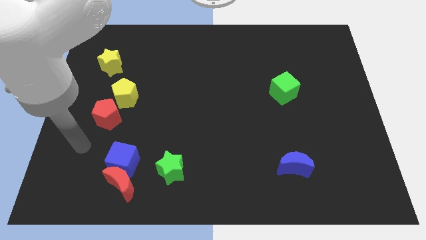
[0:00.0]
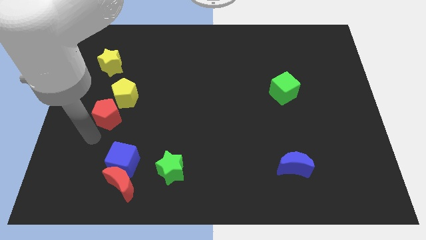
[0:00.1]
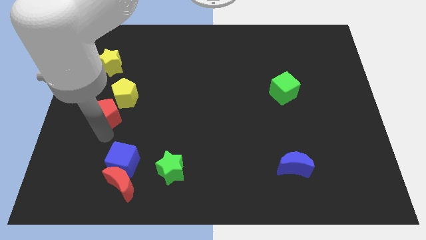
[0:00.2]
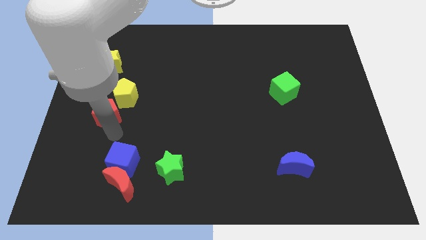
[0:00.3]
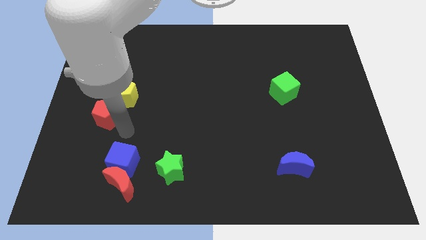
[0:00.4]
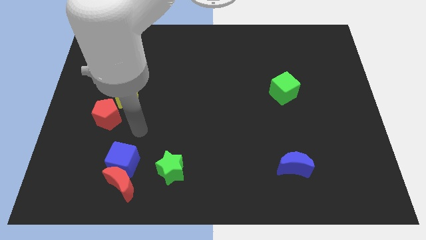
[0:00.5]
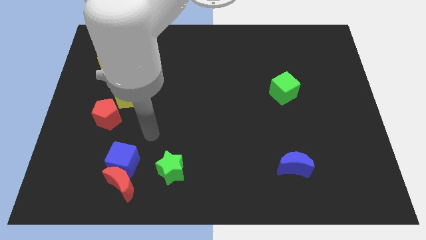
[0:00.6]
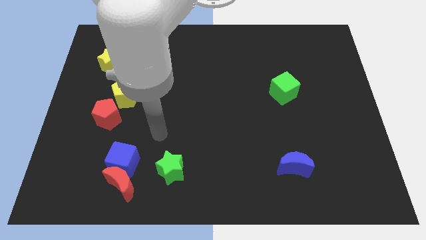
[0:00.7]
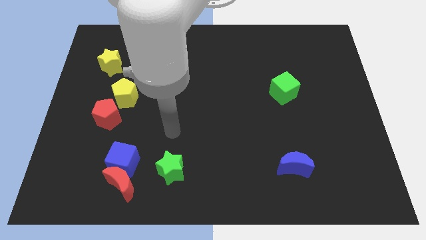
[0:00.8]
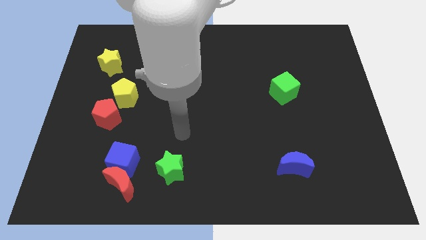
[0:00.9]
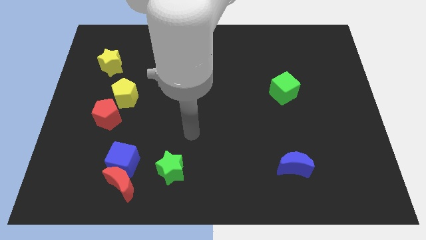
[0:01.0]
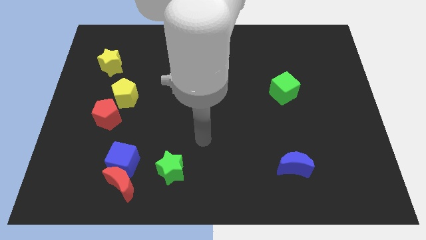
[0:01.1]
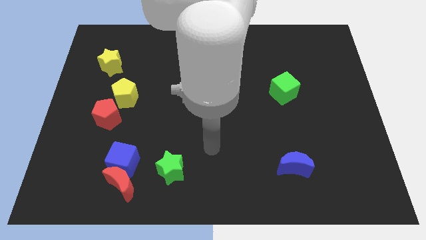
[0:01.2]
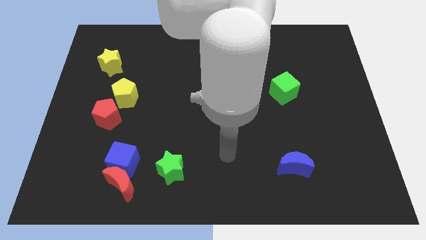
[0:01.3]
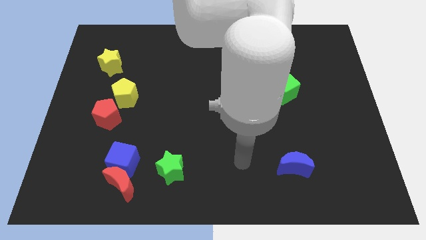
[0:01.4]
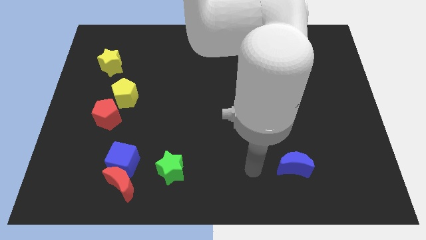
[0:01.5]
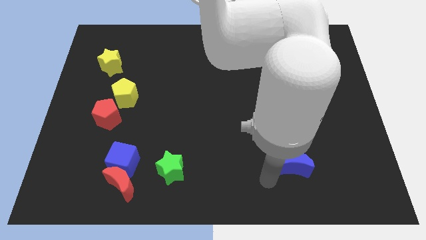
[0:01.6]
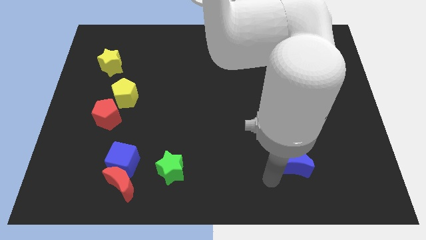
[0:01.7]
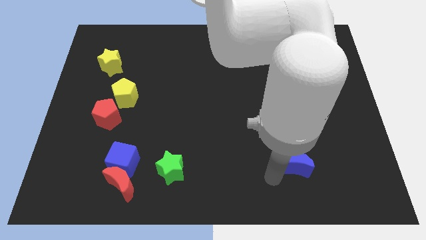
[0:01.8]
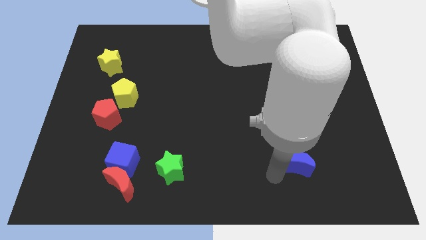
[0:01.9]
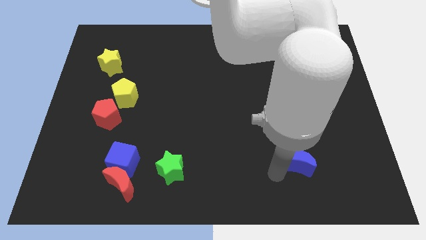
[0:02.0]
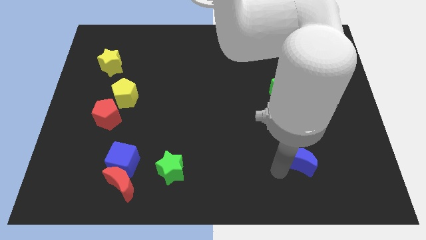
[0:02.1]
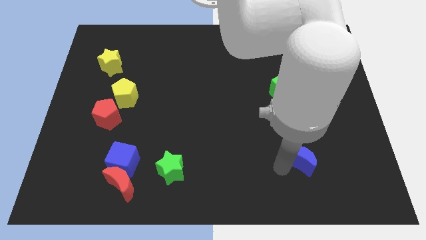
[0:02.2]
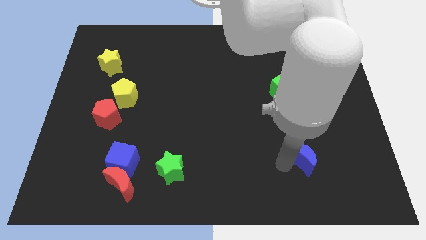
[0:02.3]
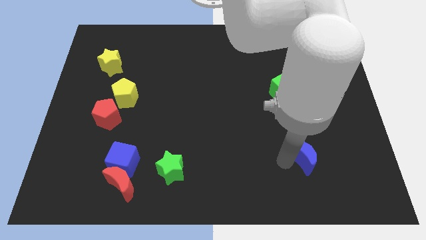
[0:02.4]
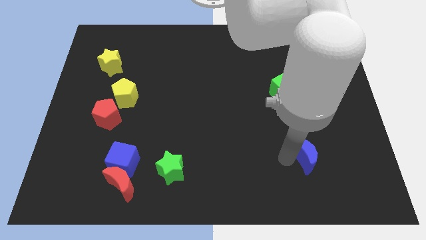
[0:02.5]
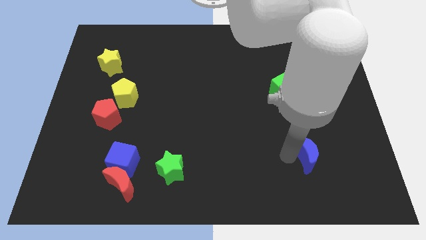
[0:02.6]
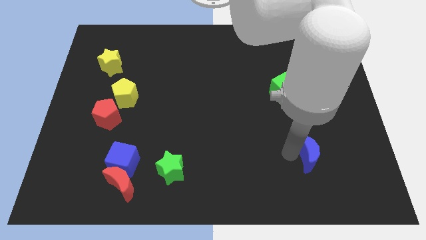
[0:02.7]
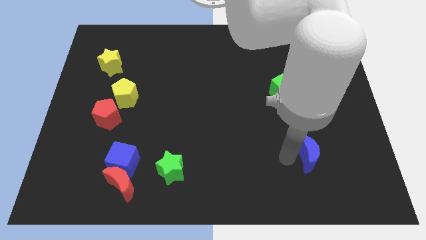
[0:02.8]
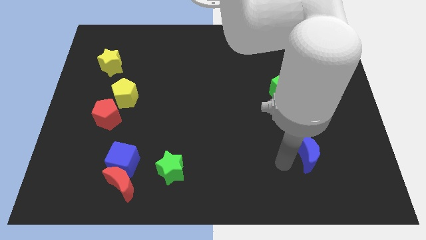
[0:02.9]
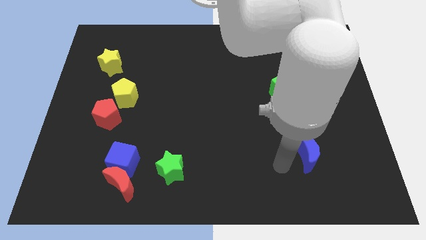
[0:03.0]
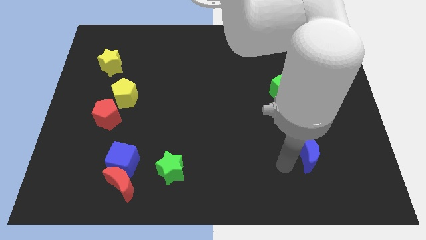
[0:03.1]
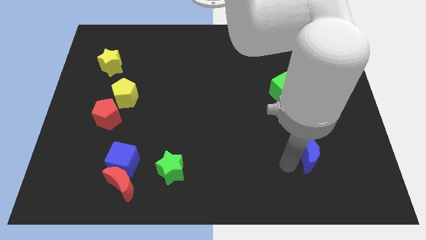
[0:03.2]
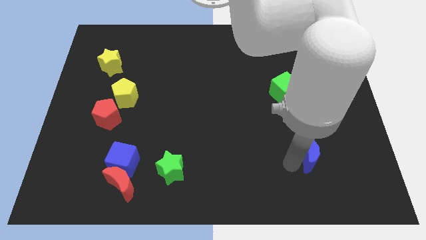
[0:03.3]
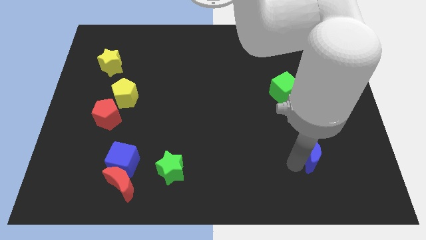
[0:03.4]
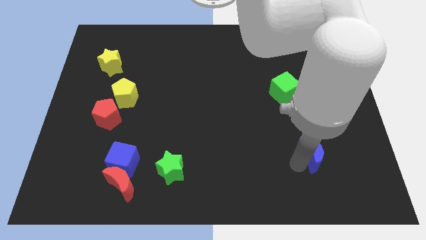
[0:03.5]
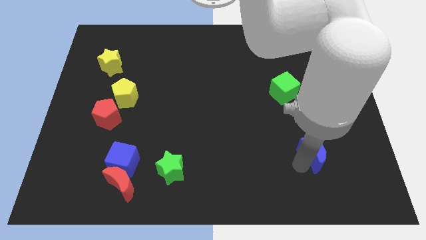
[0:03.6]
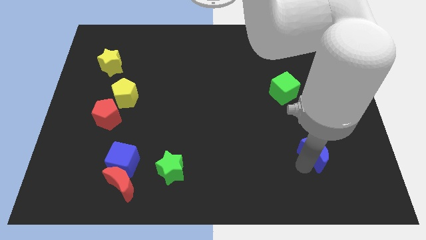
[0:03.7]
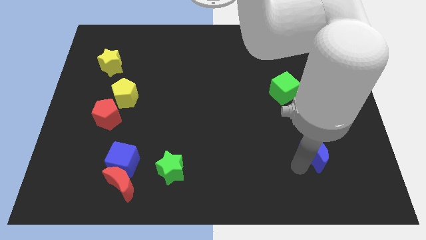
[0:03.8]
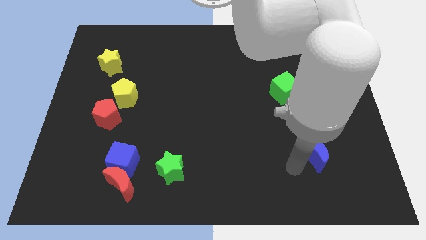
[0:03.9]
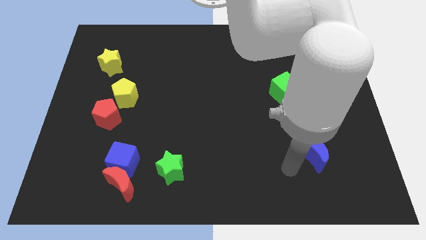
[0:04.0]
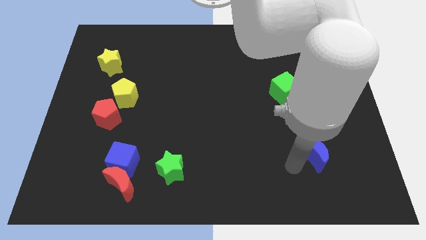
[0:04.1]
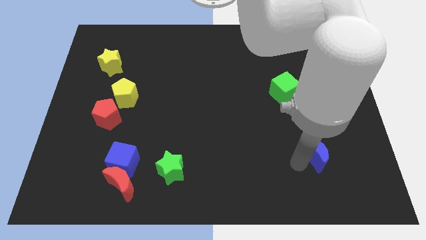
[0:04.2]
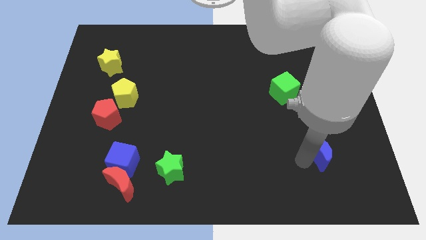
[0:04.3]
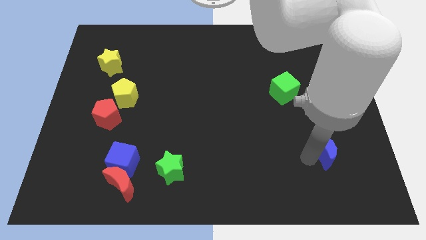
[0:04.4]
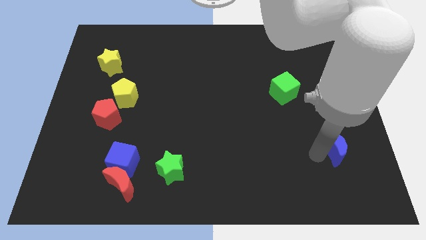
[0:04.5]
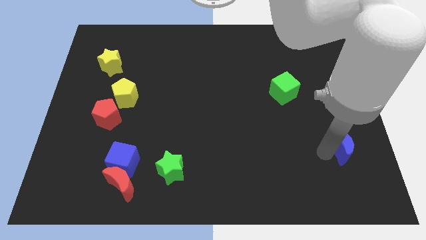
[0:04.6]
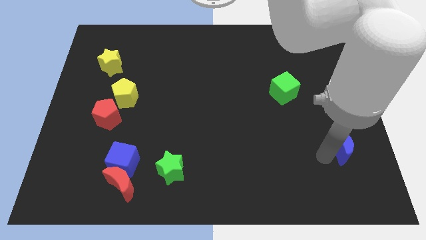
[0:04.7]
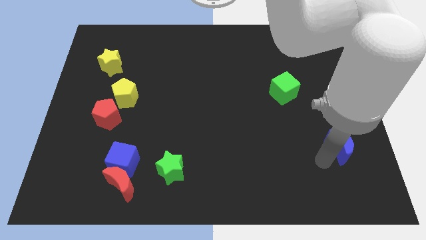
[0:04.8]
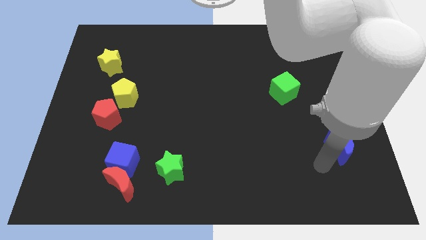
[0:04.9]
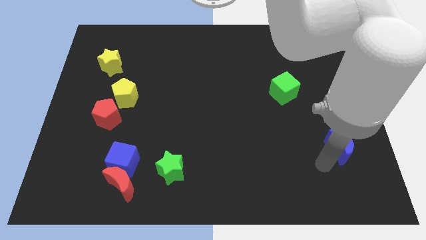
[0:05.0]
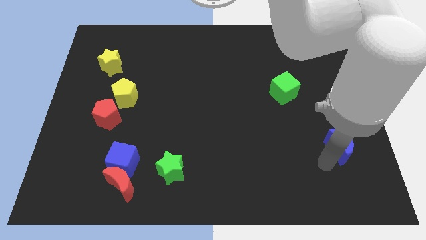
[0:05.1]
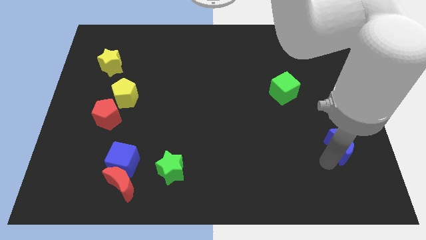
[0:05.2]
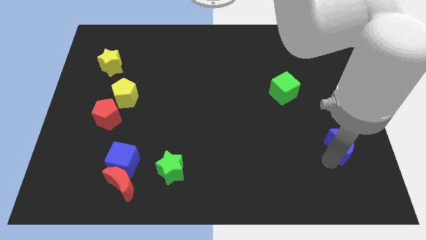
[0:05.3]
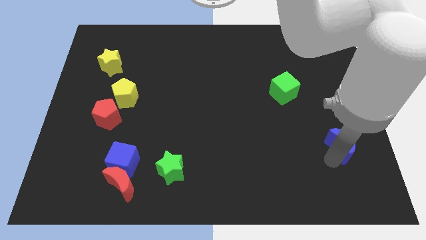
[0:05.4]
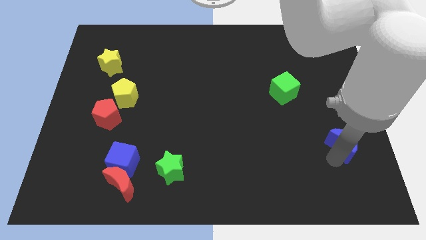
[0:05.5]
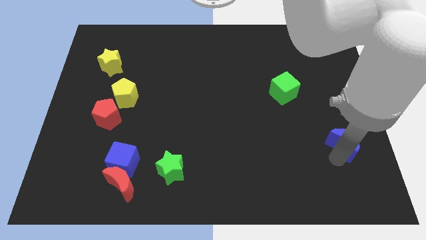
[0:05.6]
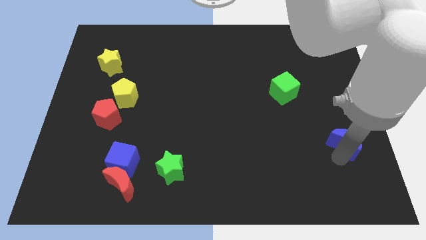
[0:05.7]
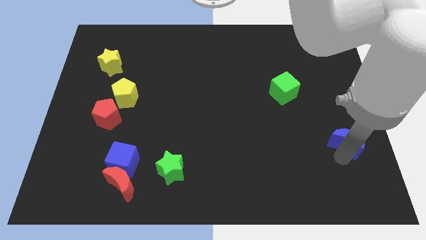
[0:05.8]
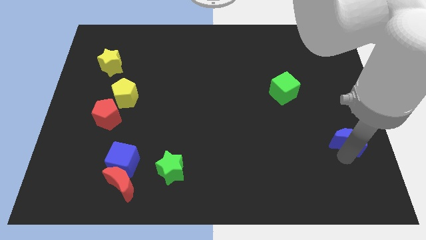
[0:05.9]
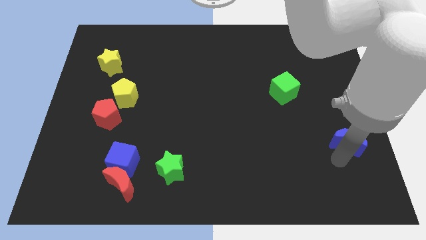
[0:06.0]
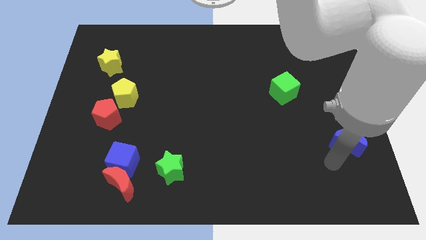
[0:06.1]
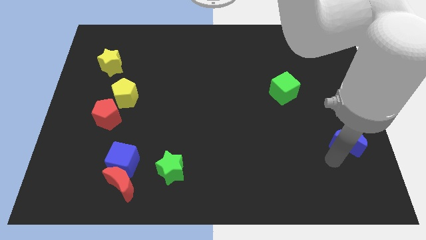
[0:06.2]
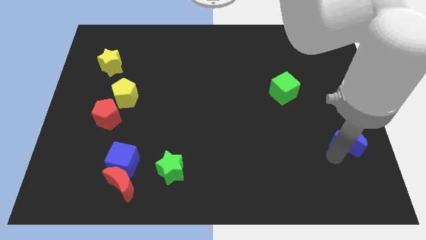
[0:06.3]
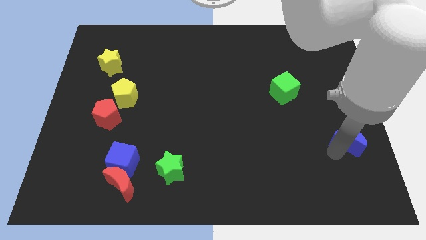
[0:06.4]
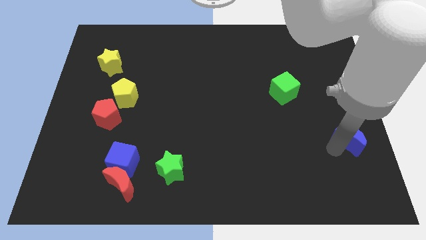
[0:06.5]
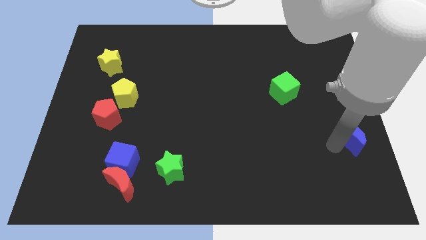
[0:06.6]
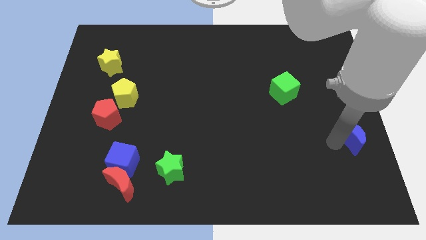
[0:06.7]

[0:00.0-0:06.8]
put the blue moon to the right side of the board

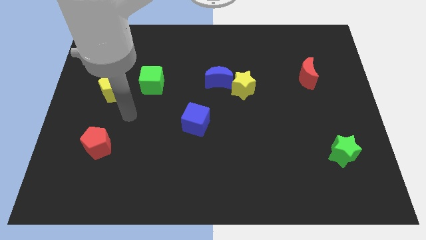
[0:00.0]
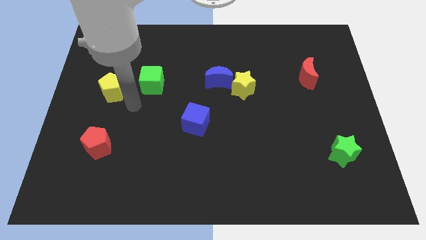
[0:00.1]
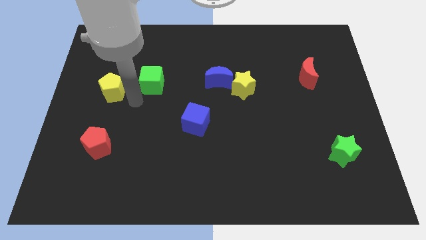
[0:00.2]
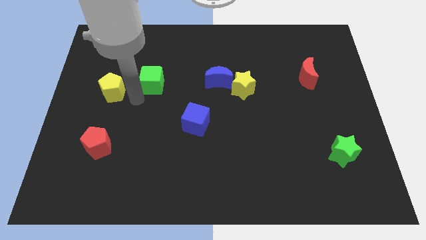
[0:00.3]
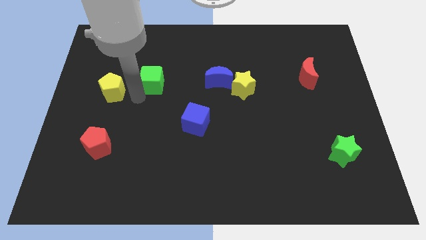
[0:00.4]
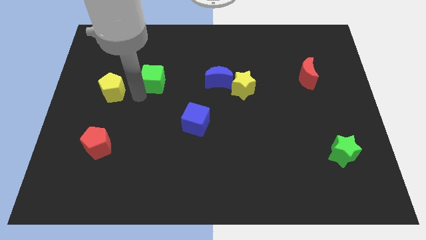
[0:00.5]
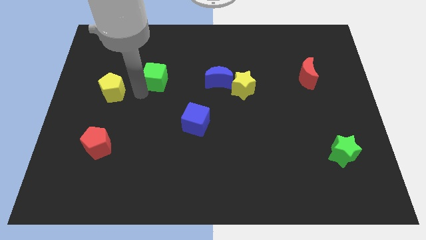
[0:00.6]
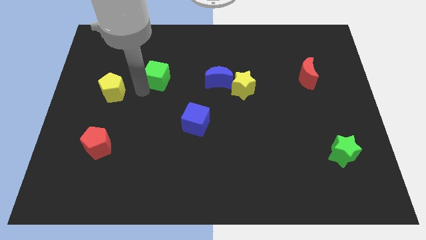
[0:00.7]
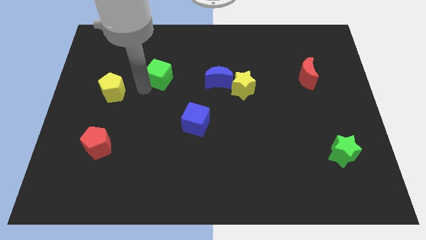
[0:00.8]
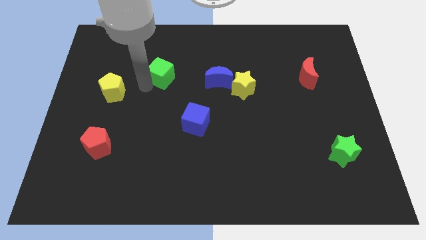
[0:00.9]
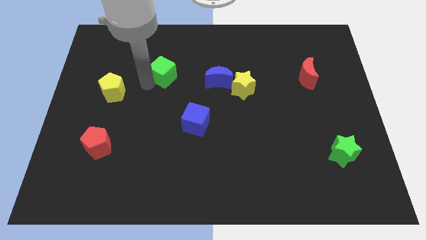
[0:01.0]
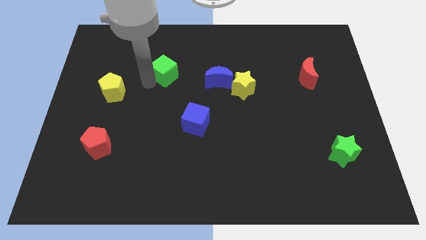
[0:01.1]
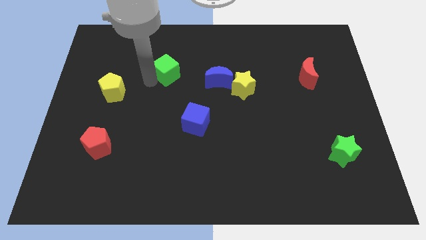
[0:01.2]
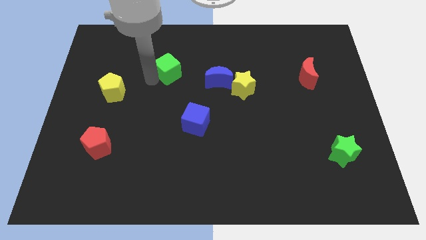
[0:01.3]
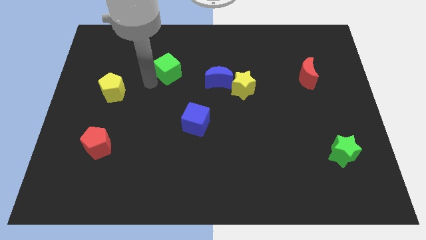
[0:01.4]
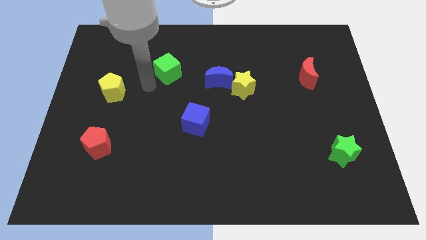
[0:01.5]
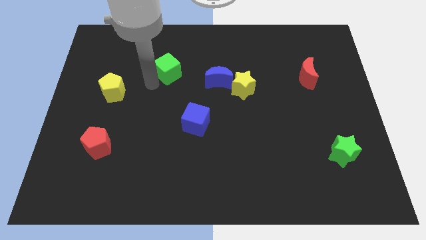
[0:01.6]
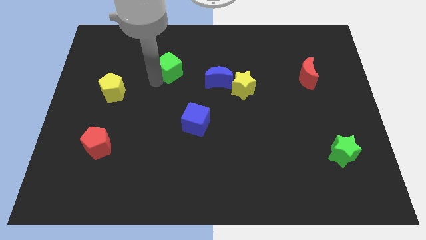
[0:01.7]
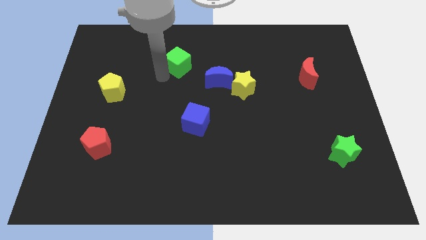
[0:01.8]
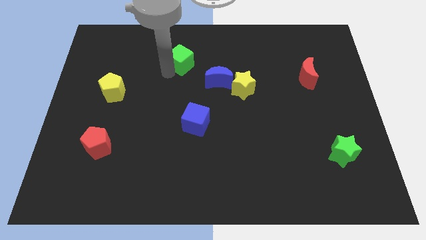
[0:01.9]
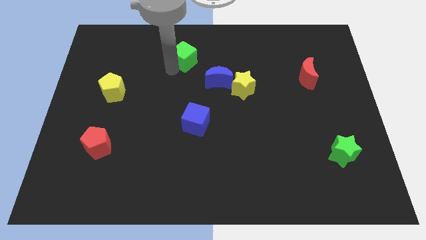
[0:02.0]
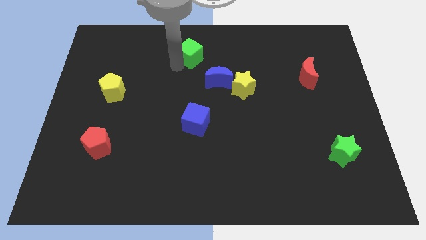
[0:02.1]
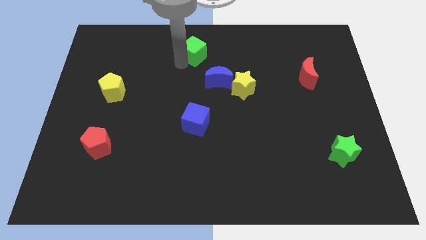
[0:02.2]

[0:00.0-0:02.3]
put the green cube to the top side
